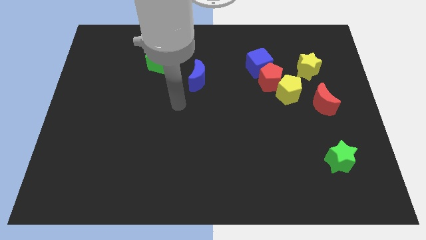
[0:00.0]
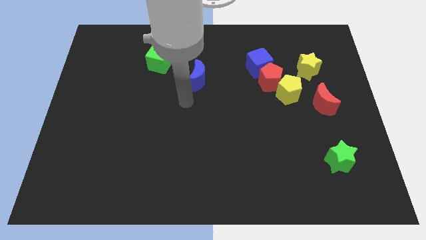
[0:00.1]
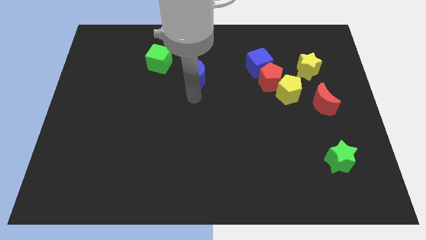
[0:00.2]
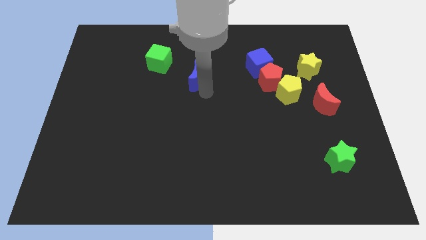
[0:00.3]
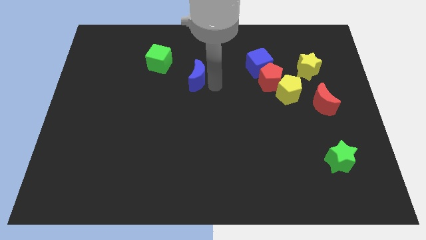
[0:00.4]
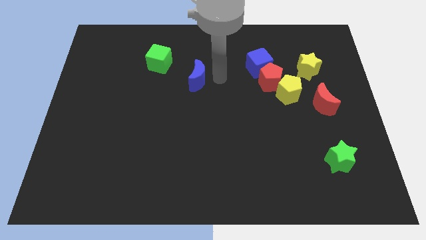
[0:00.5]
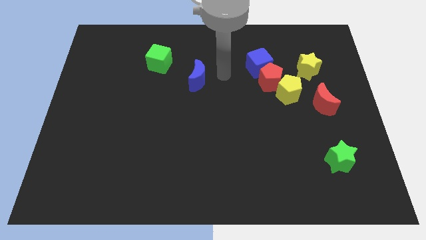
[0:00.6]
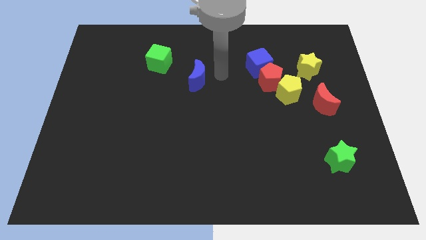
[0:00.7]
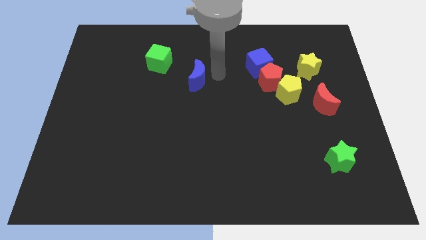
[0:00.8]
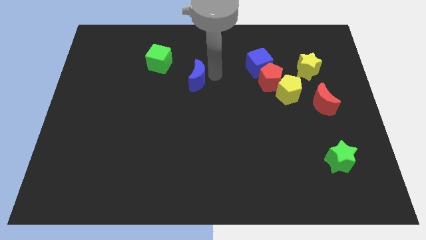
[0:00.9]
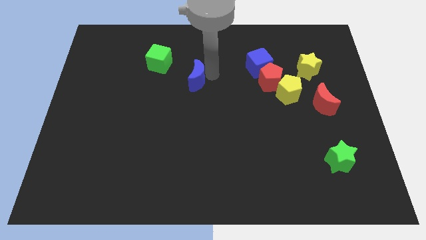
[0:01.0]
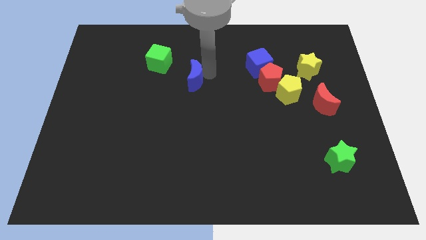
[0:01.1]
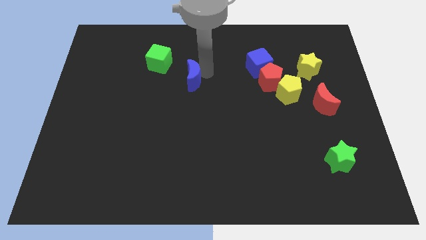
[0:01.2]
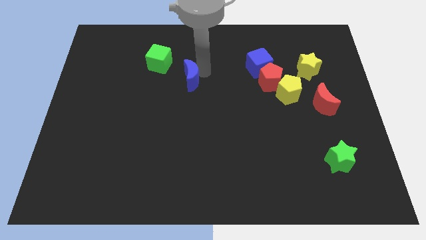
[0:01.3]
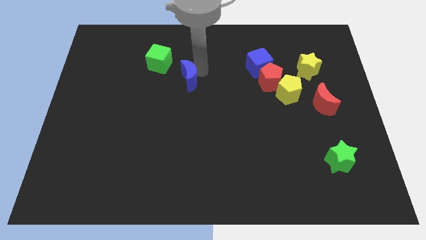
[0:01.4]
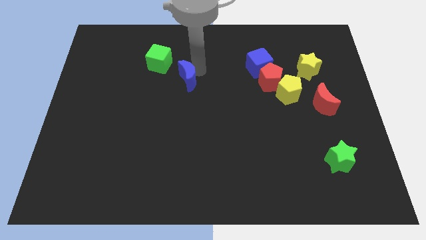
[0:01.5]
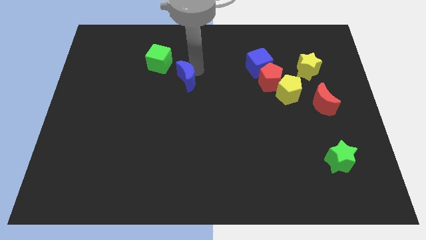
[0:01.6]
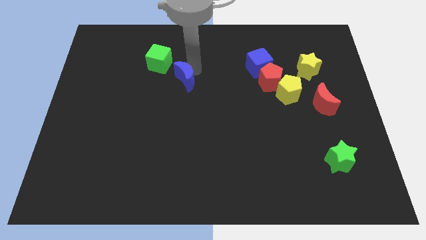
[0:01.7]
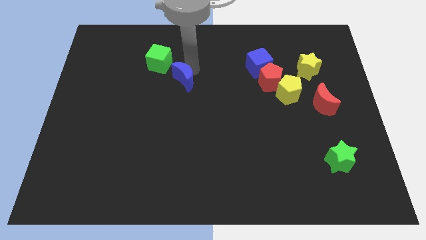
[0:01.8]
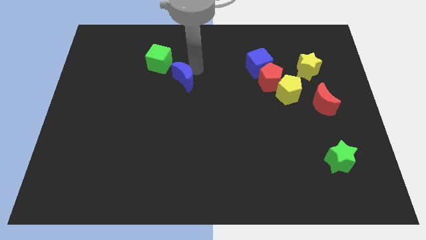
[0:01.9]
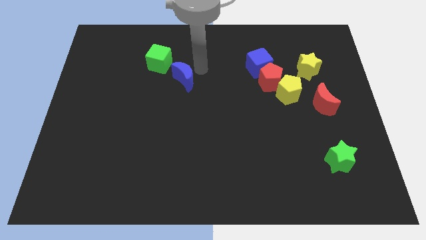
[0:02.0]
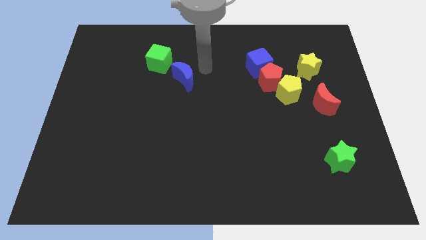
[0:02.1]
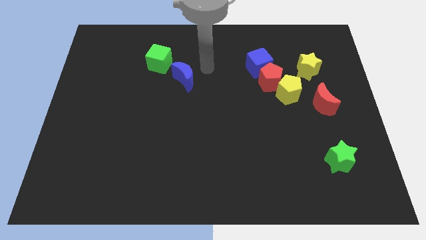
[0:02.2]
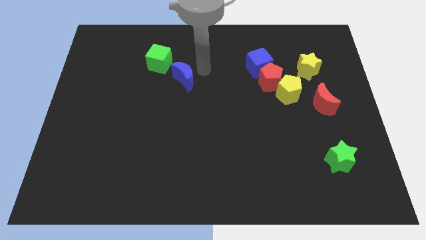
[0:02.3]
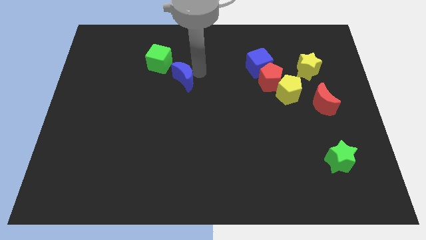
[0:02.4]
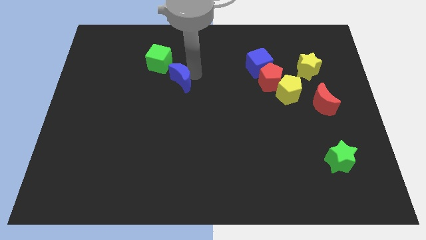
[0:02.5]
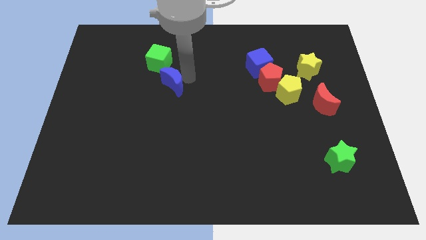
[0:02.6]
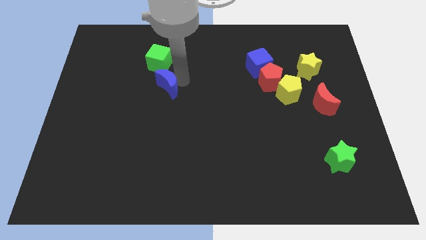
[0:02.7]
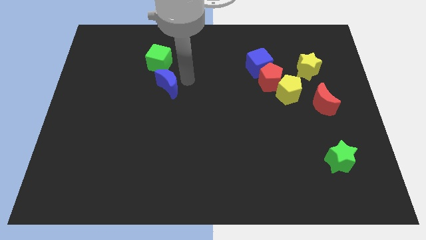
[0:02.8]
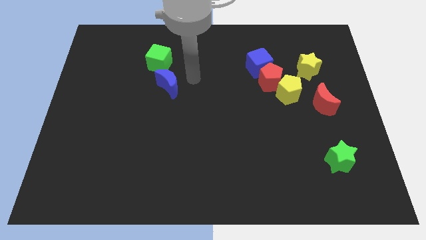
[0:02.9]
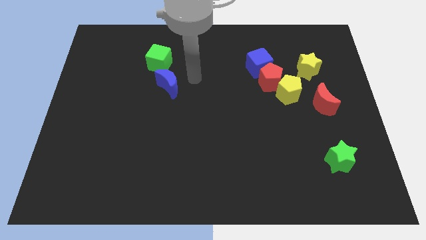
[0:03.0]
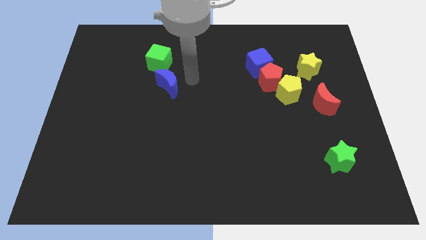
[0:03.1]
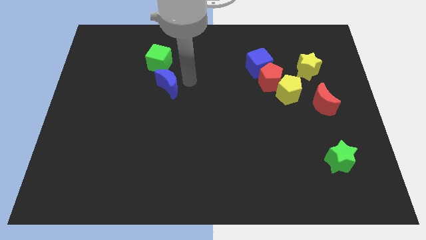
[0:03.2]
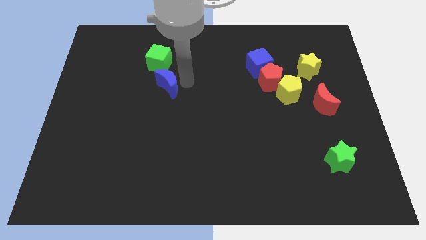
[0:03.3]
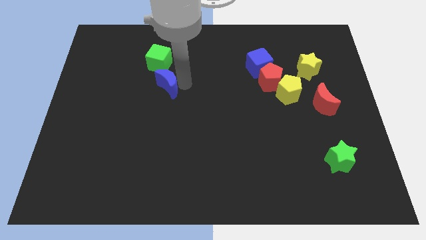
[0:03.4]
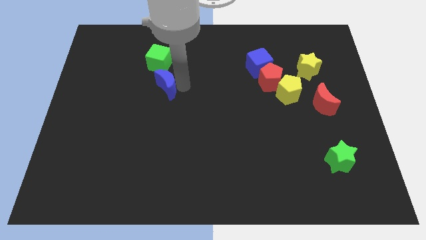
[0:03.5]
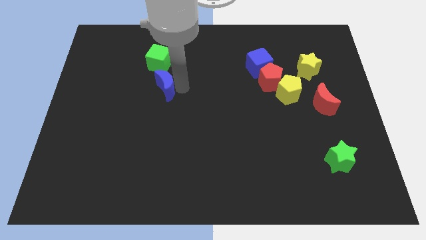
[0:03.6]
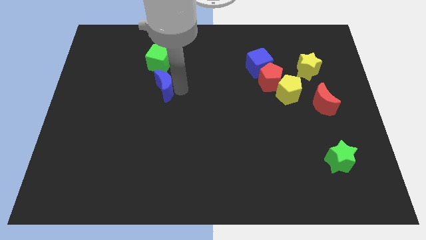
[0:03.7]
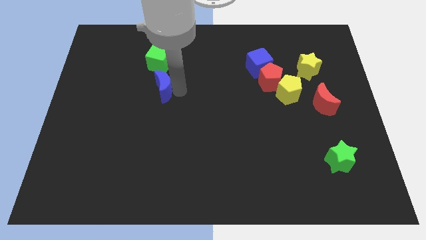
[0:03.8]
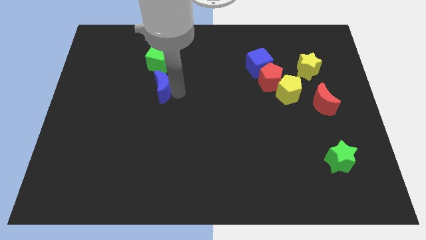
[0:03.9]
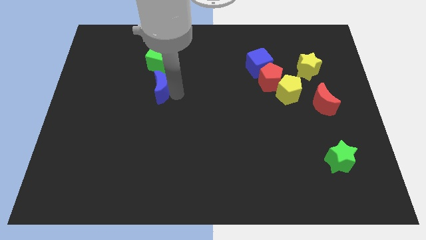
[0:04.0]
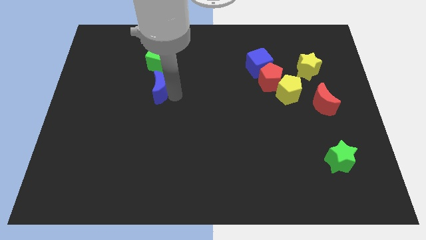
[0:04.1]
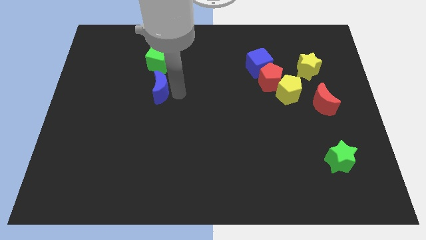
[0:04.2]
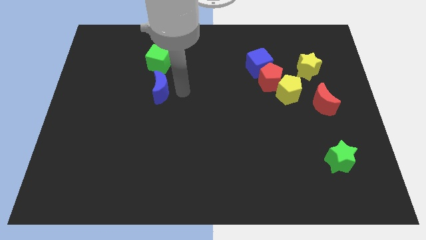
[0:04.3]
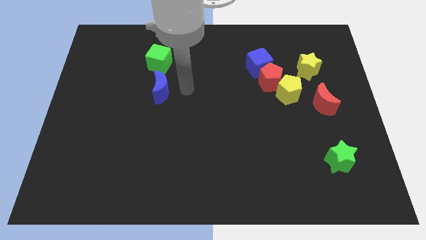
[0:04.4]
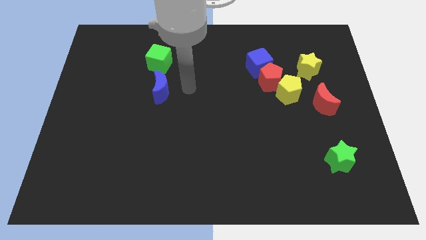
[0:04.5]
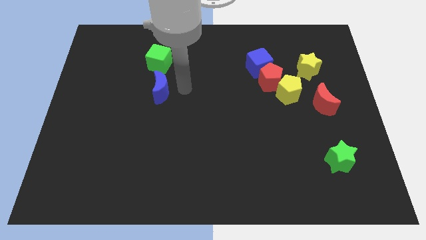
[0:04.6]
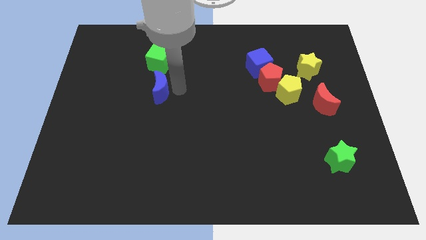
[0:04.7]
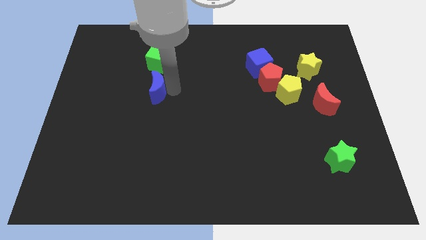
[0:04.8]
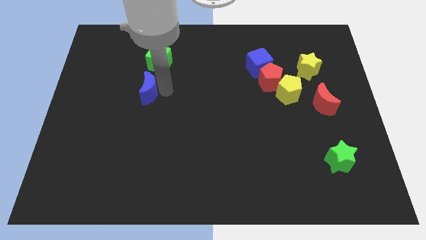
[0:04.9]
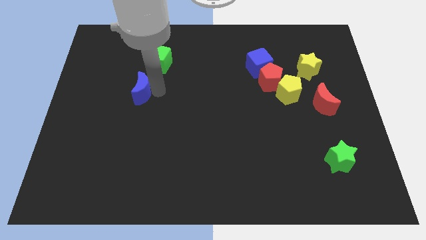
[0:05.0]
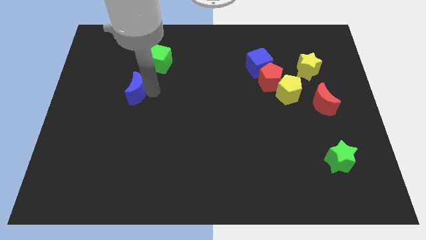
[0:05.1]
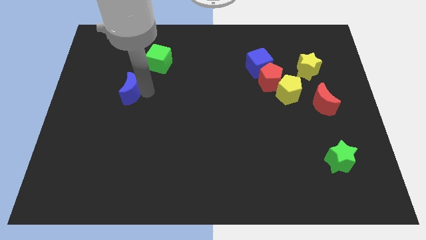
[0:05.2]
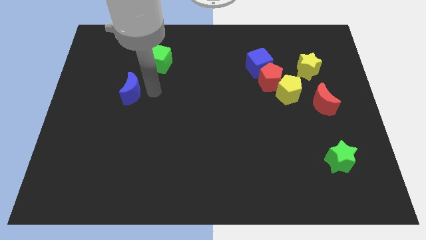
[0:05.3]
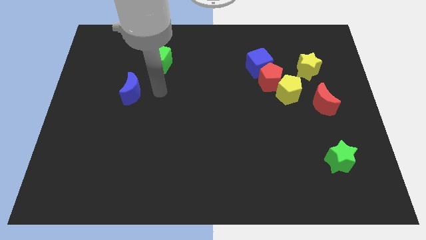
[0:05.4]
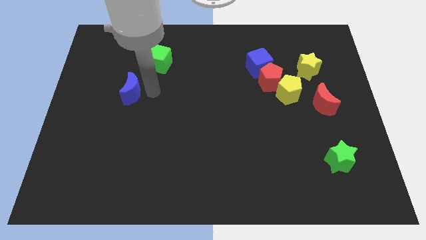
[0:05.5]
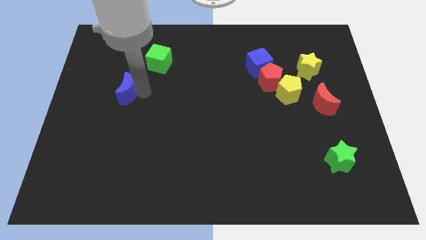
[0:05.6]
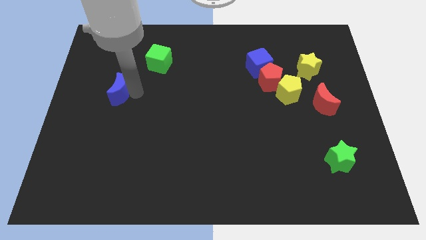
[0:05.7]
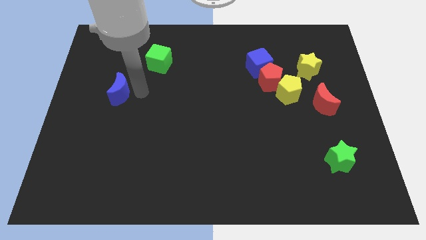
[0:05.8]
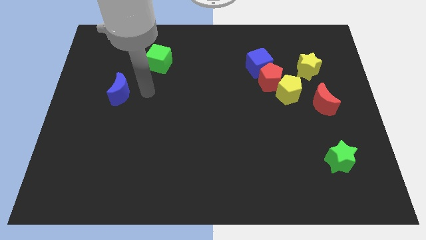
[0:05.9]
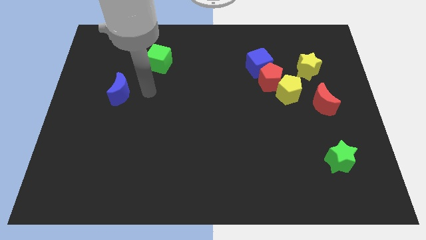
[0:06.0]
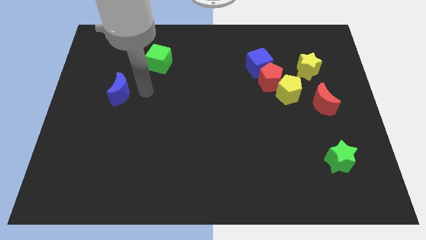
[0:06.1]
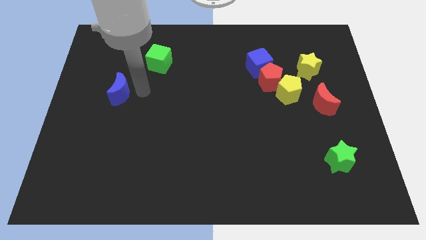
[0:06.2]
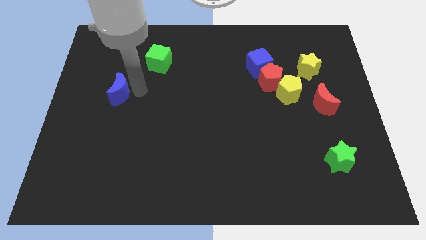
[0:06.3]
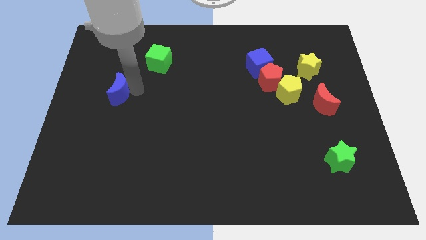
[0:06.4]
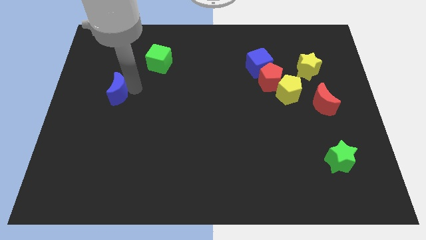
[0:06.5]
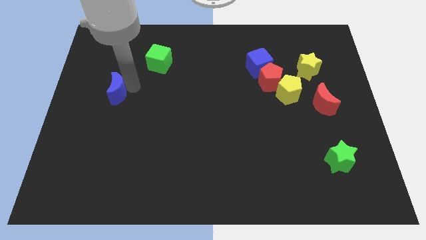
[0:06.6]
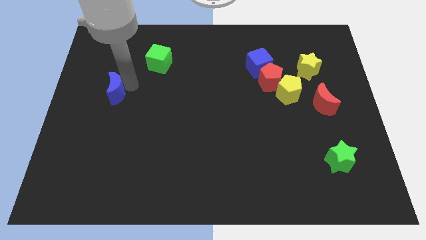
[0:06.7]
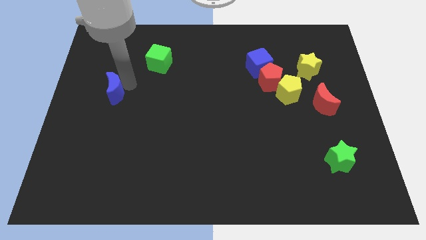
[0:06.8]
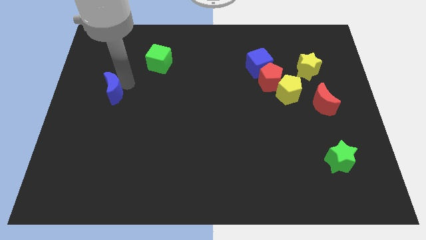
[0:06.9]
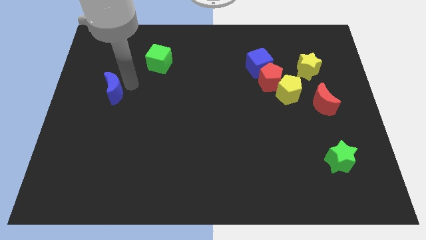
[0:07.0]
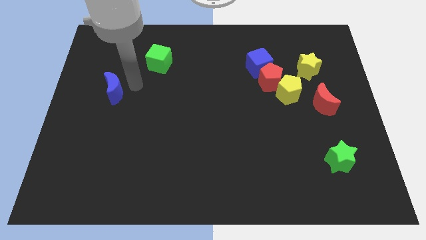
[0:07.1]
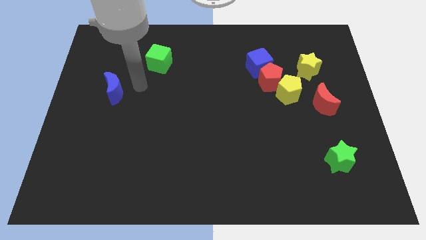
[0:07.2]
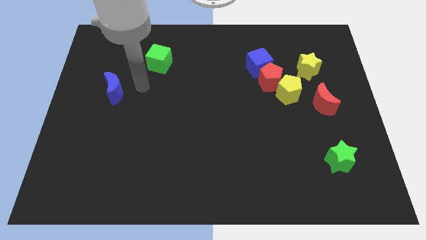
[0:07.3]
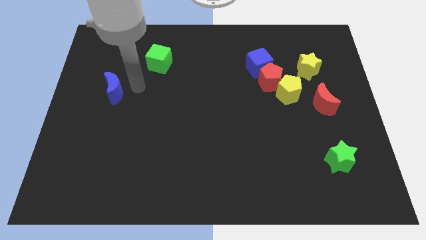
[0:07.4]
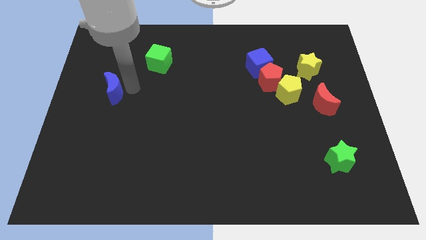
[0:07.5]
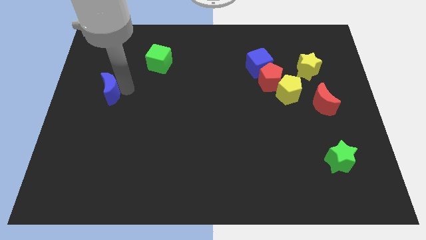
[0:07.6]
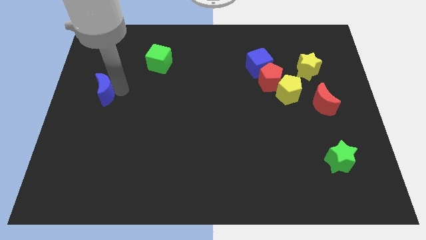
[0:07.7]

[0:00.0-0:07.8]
slide the blue moon to the left side of the board
